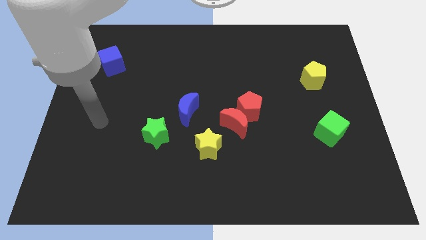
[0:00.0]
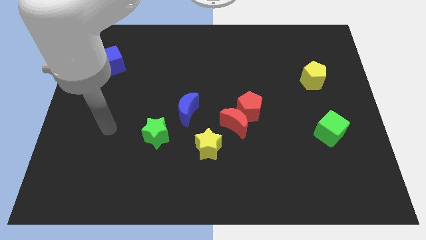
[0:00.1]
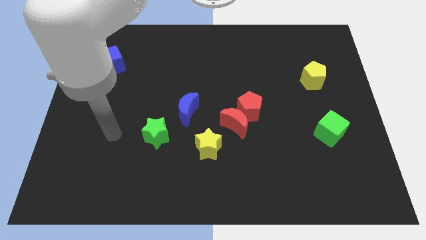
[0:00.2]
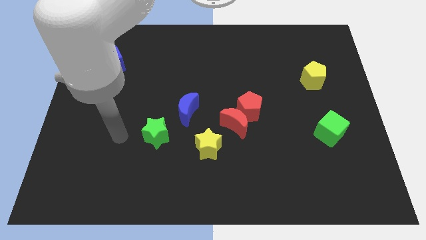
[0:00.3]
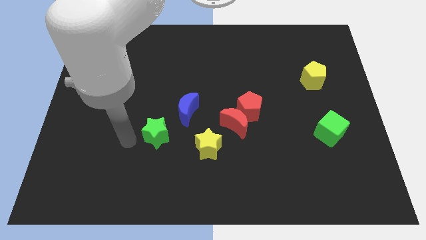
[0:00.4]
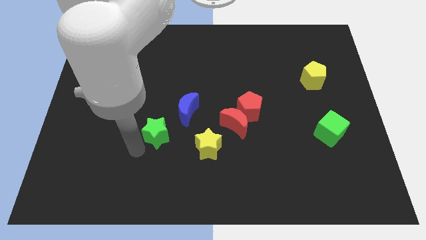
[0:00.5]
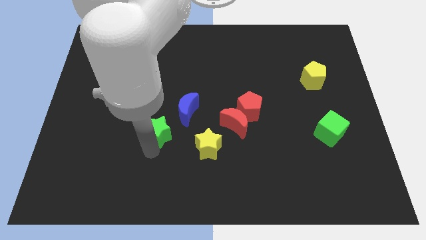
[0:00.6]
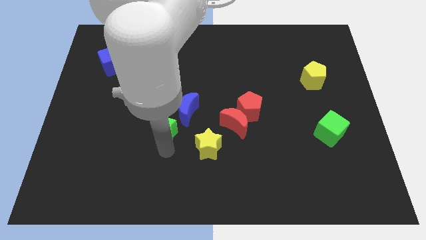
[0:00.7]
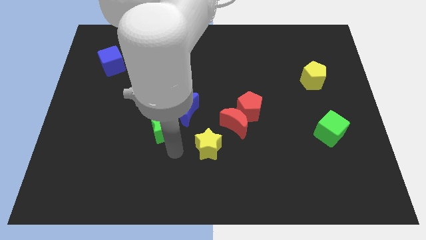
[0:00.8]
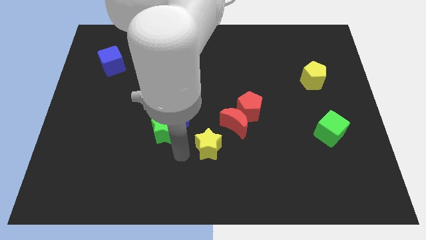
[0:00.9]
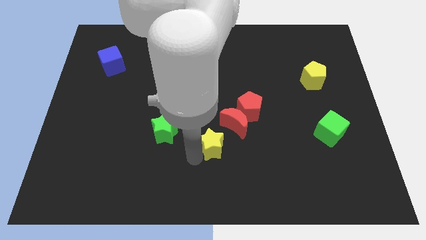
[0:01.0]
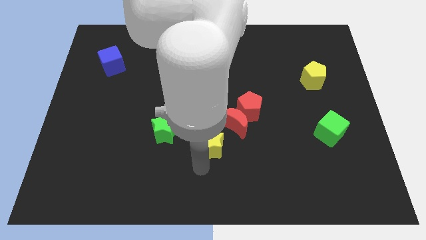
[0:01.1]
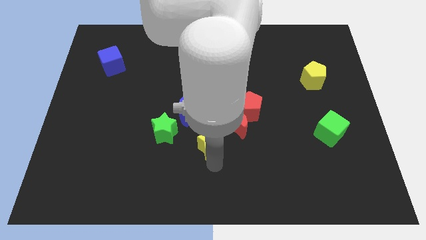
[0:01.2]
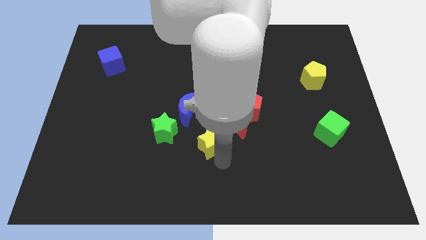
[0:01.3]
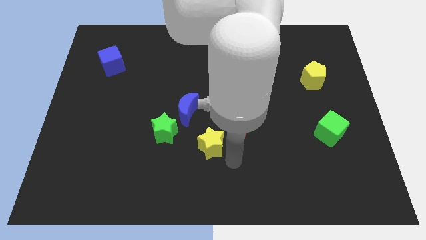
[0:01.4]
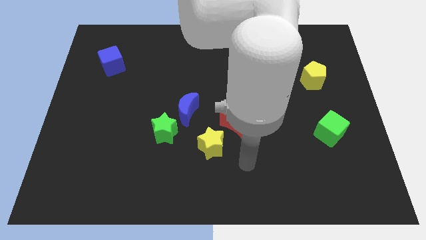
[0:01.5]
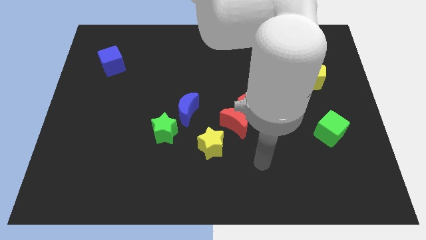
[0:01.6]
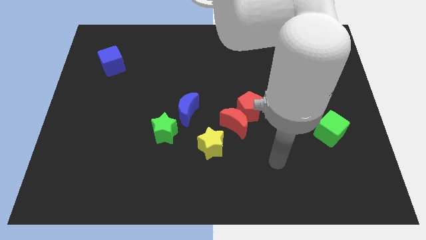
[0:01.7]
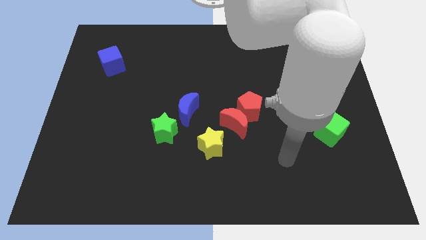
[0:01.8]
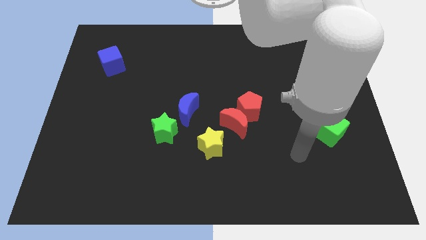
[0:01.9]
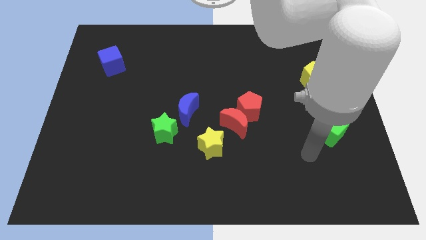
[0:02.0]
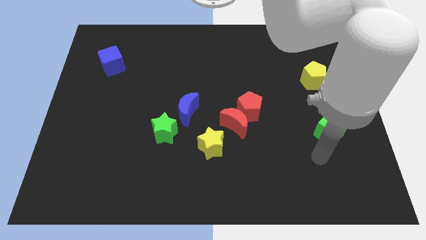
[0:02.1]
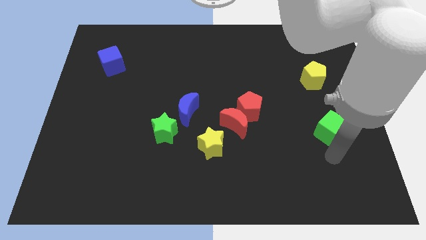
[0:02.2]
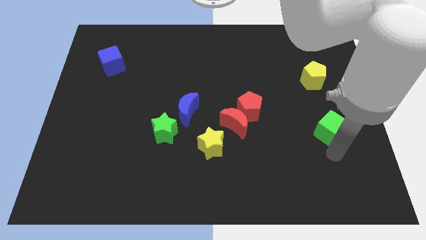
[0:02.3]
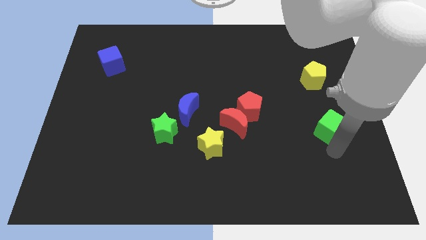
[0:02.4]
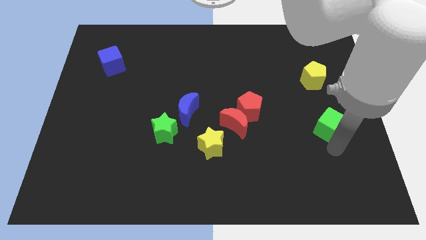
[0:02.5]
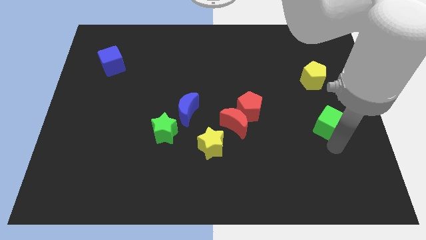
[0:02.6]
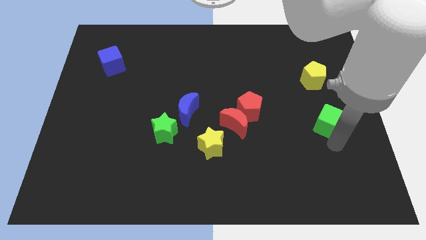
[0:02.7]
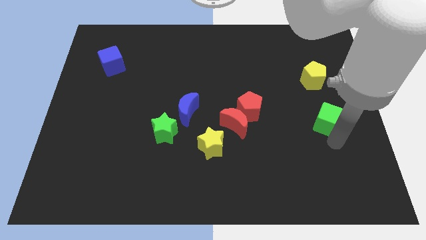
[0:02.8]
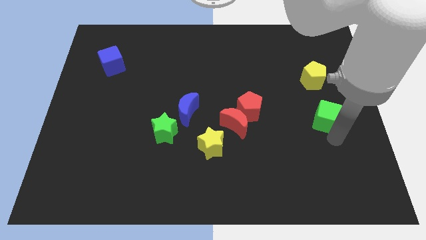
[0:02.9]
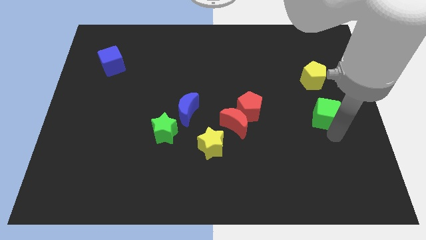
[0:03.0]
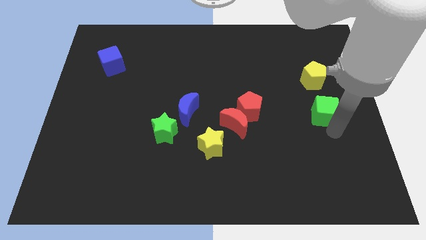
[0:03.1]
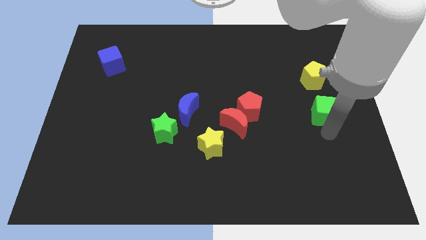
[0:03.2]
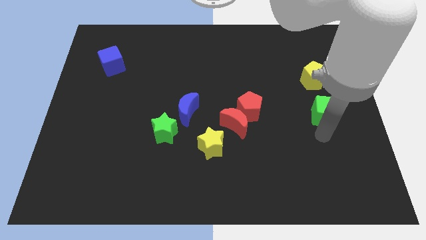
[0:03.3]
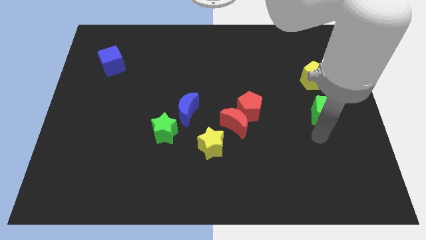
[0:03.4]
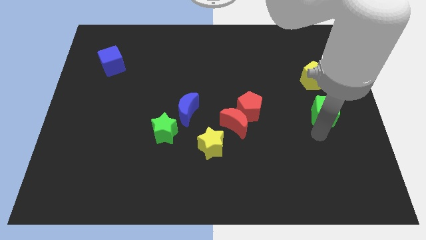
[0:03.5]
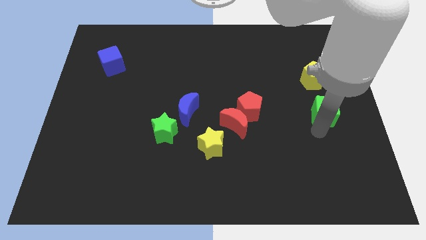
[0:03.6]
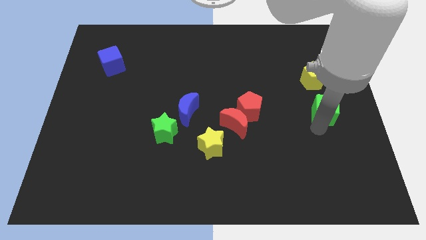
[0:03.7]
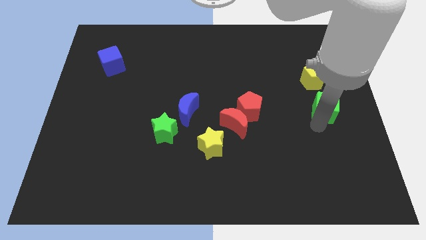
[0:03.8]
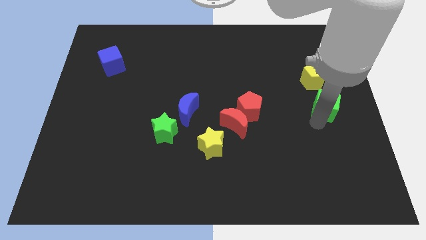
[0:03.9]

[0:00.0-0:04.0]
move the green cube up somewhat

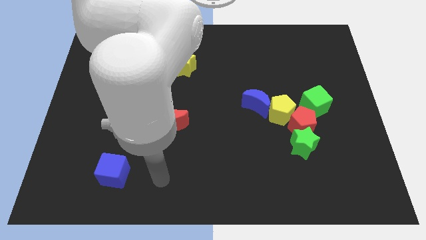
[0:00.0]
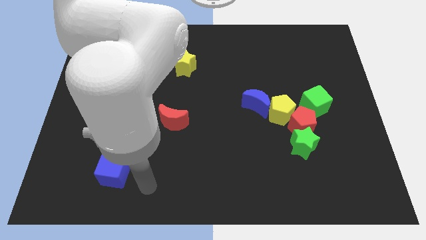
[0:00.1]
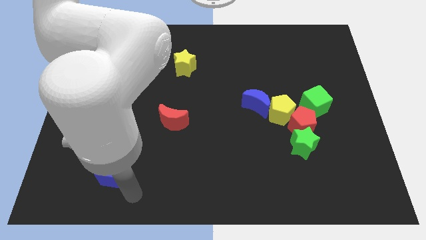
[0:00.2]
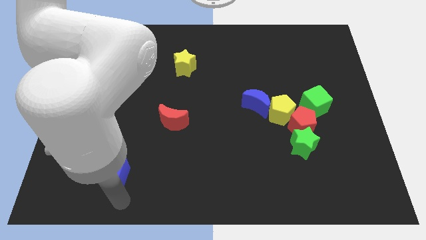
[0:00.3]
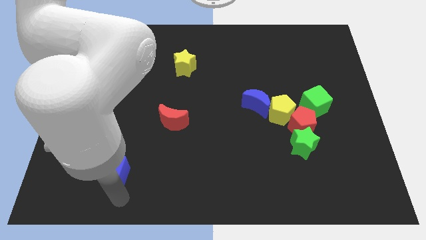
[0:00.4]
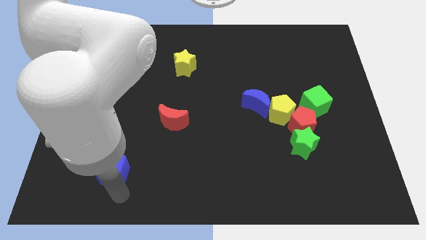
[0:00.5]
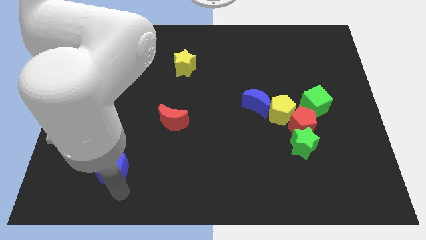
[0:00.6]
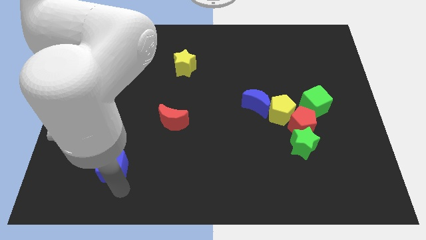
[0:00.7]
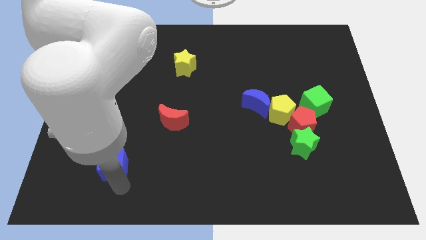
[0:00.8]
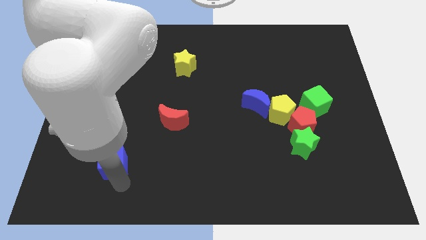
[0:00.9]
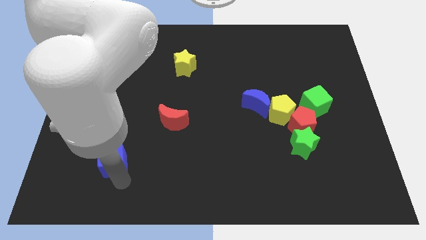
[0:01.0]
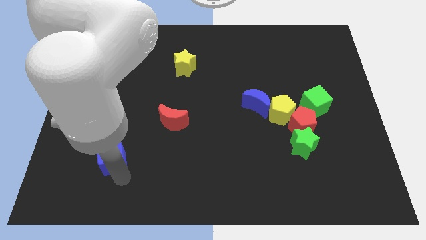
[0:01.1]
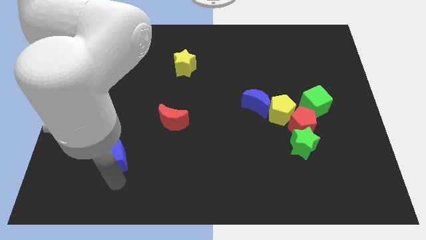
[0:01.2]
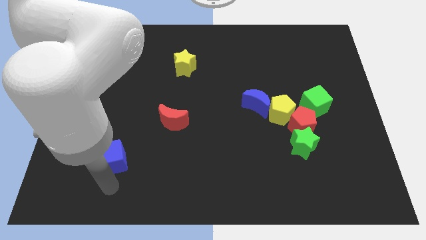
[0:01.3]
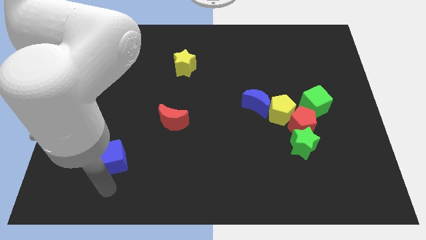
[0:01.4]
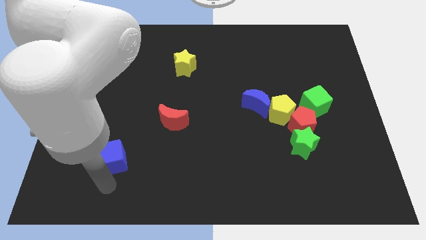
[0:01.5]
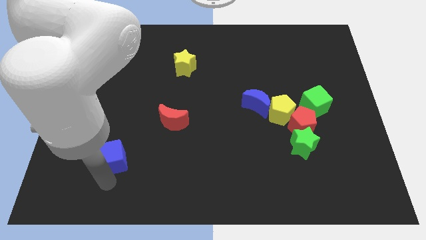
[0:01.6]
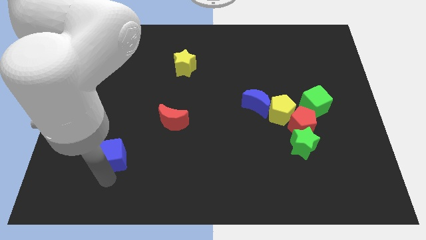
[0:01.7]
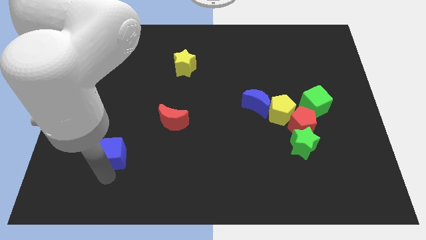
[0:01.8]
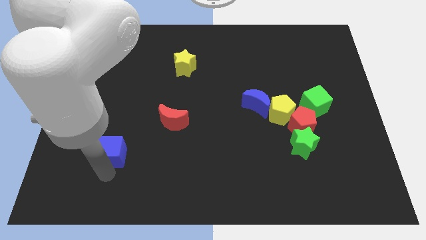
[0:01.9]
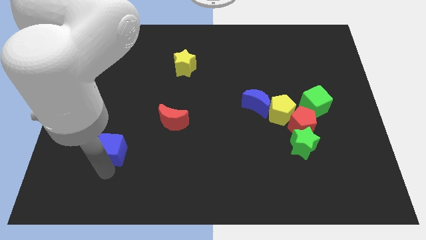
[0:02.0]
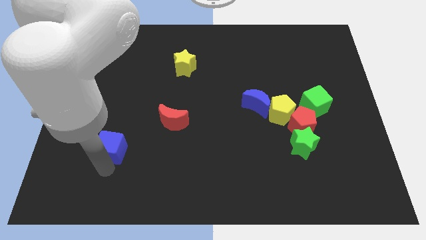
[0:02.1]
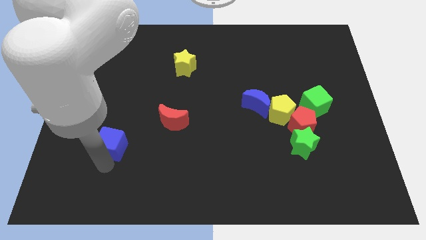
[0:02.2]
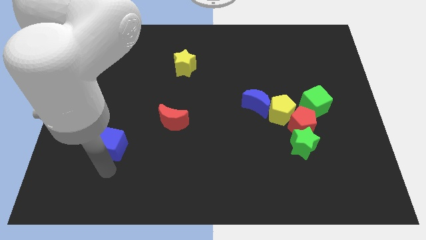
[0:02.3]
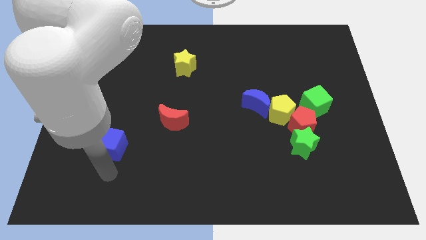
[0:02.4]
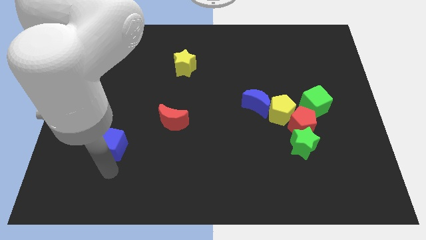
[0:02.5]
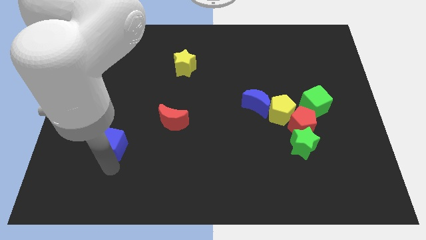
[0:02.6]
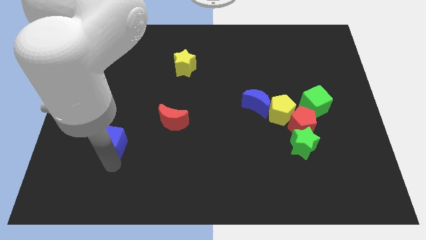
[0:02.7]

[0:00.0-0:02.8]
push the blue cube upwards a little bit

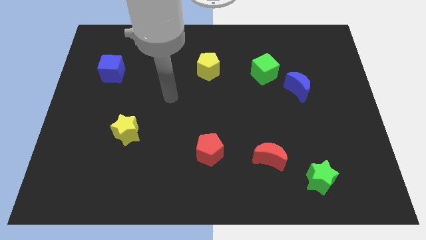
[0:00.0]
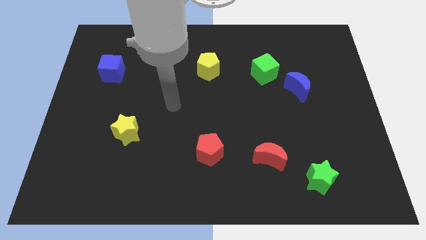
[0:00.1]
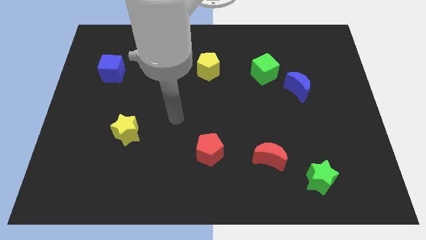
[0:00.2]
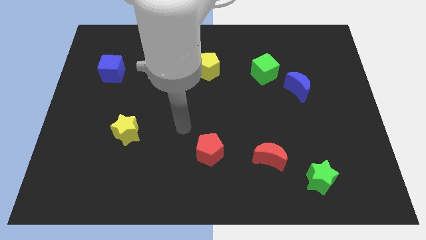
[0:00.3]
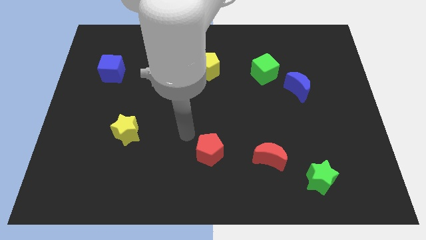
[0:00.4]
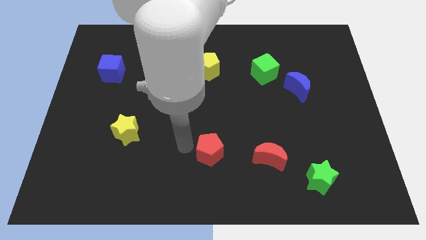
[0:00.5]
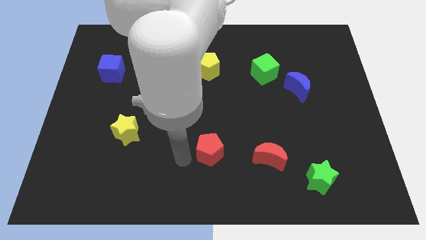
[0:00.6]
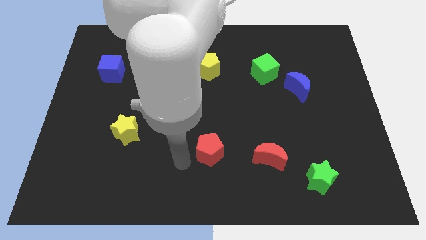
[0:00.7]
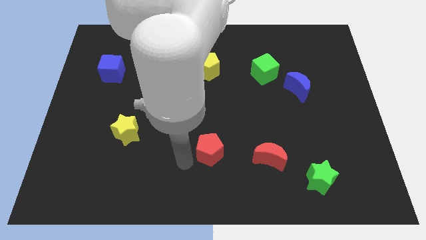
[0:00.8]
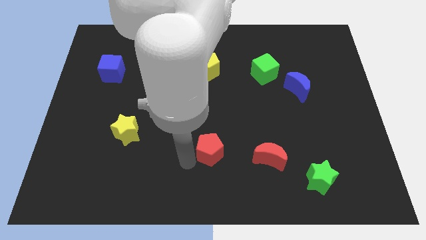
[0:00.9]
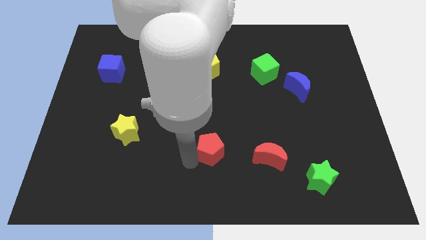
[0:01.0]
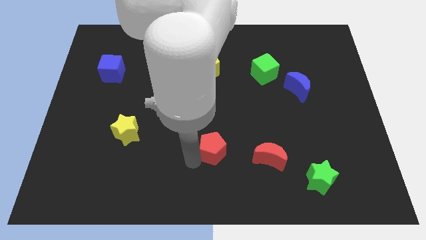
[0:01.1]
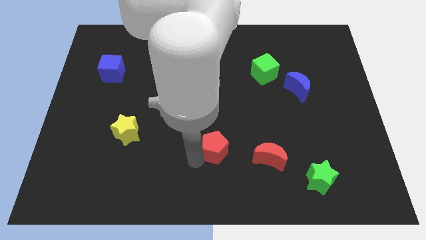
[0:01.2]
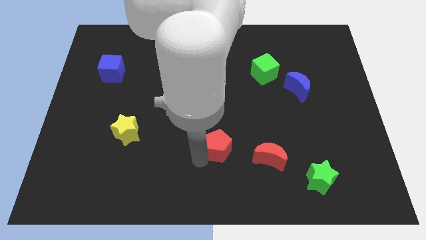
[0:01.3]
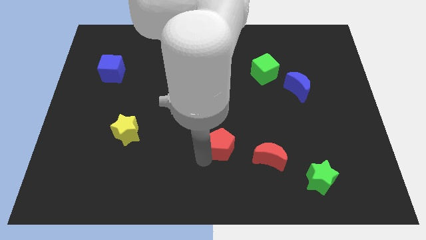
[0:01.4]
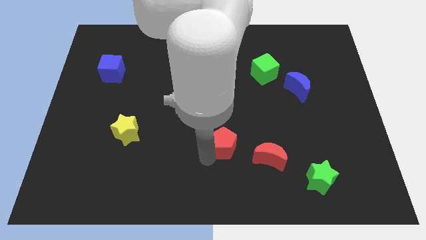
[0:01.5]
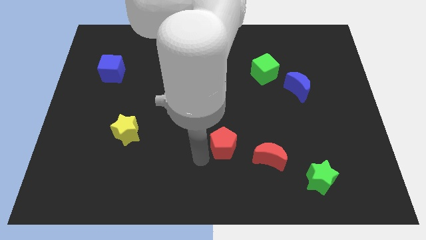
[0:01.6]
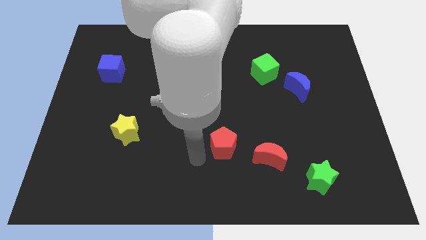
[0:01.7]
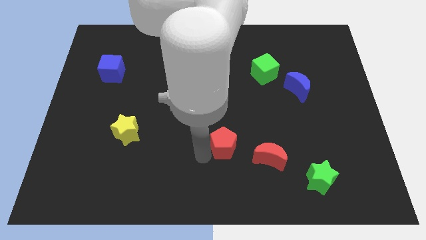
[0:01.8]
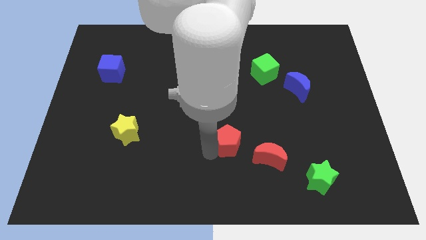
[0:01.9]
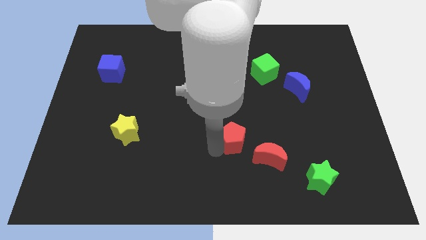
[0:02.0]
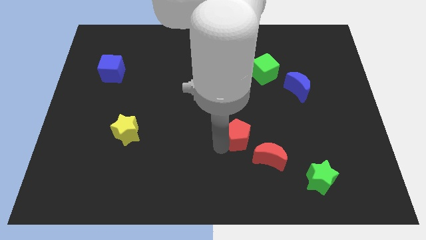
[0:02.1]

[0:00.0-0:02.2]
move the red pentagon a bit diagonally upwards and to the right
